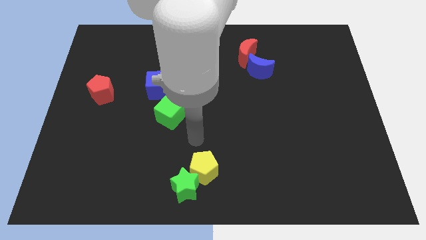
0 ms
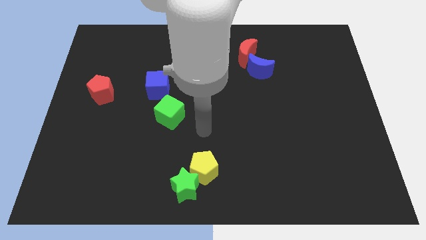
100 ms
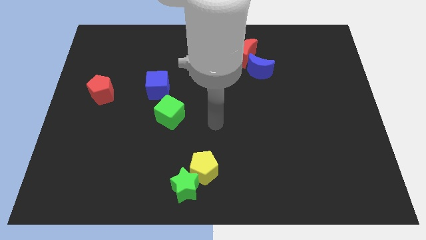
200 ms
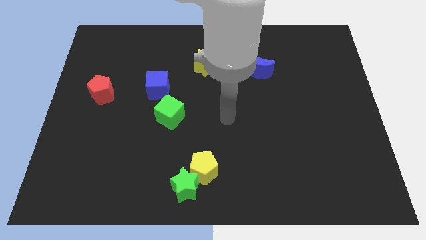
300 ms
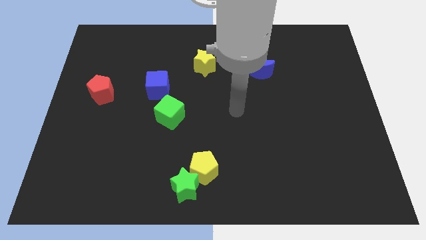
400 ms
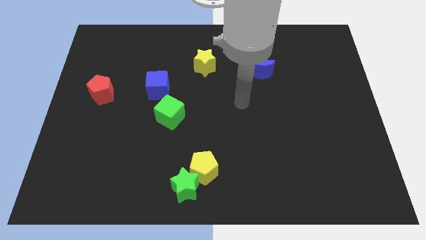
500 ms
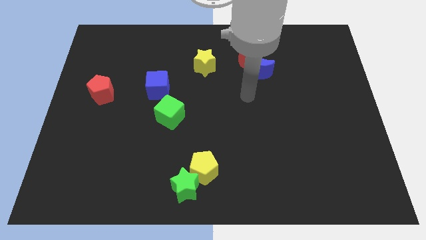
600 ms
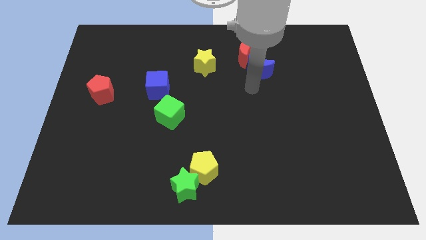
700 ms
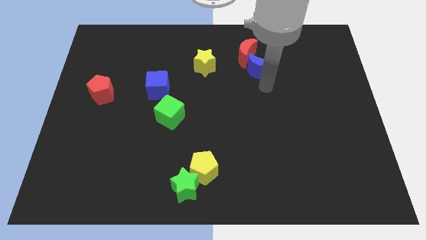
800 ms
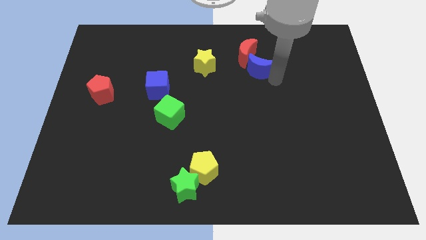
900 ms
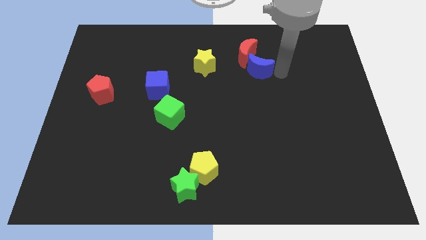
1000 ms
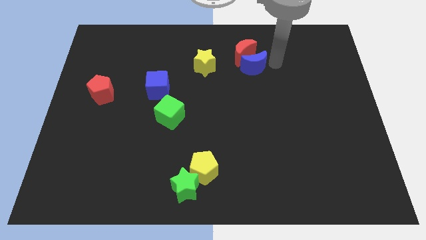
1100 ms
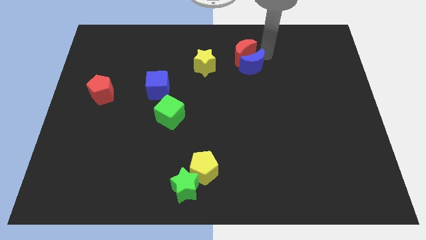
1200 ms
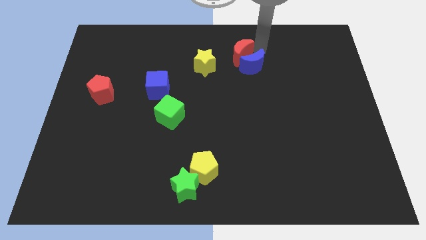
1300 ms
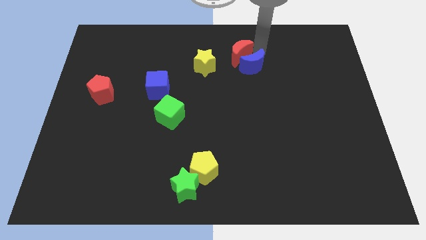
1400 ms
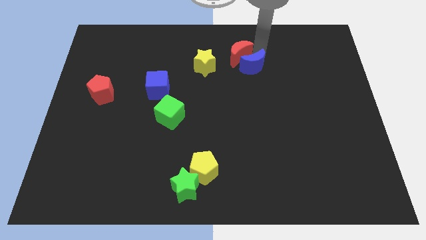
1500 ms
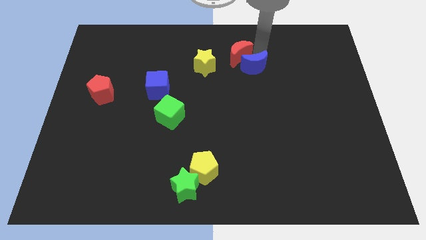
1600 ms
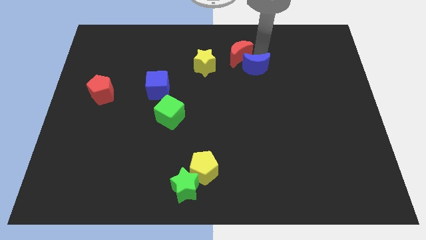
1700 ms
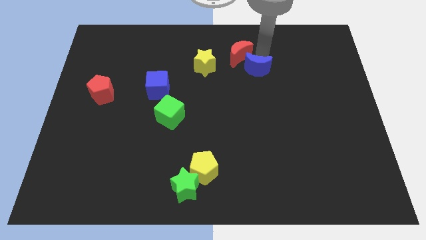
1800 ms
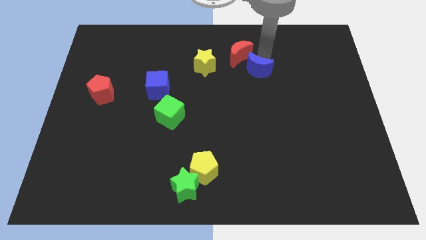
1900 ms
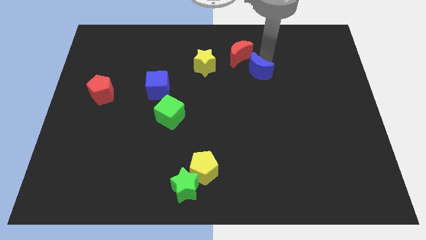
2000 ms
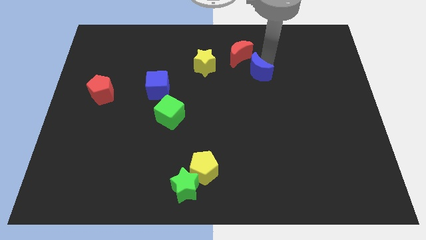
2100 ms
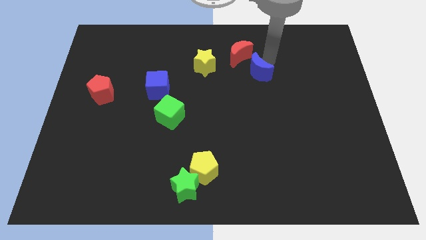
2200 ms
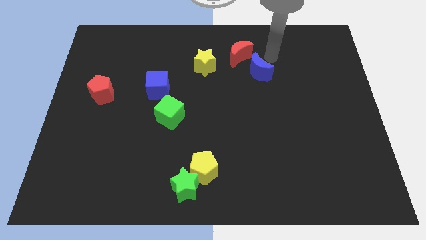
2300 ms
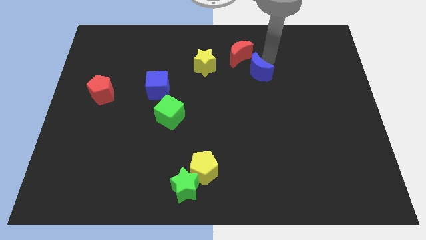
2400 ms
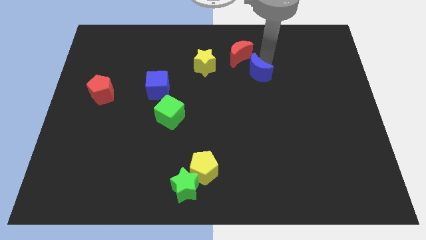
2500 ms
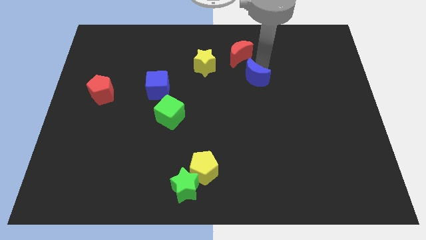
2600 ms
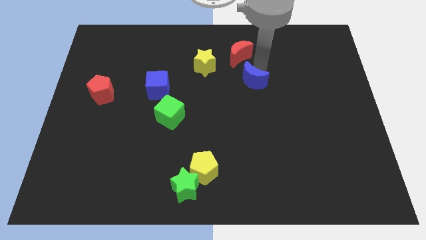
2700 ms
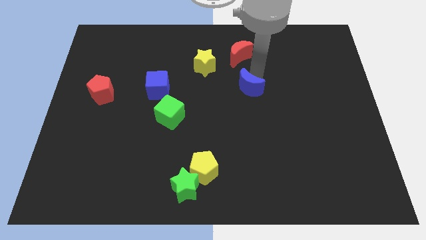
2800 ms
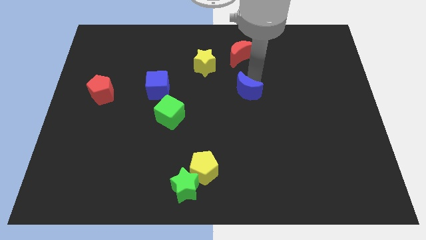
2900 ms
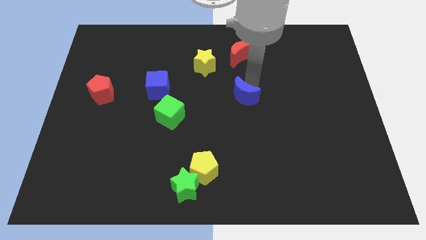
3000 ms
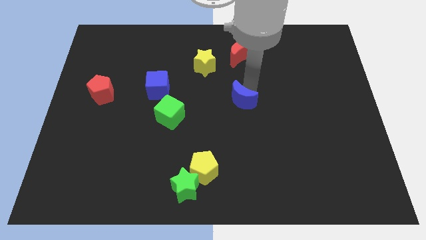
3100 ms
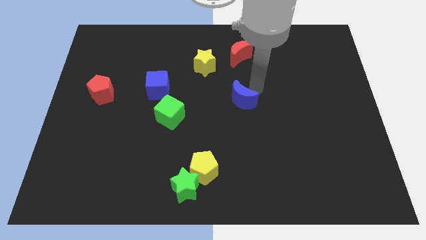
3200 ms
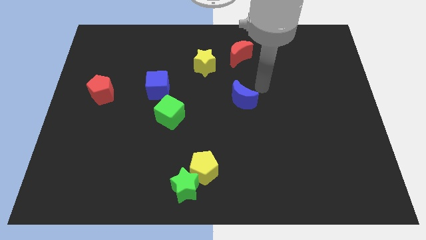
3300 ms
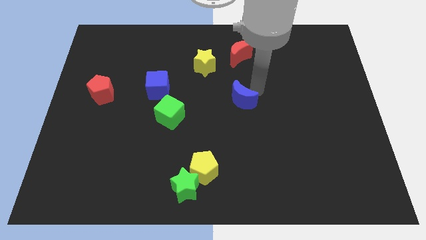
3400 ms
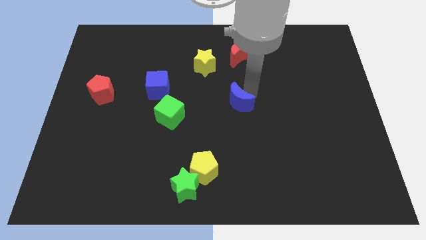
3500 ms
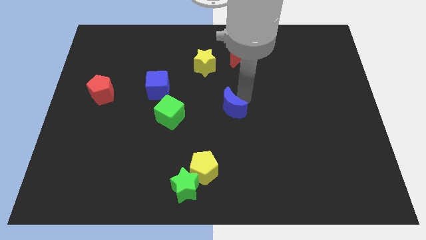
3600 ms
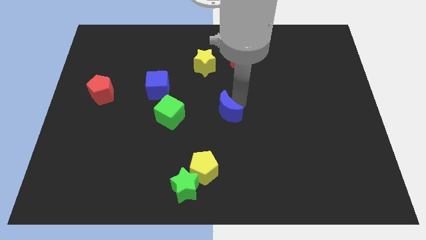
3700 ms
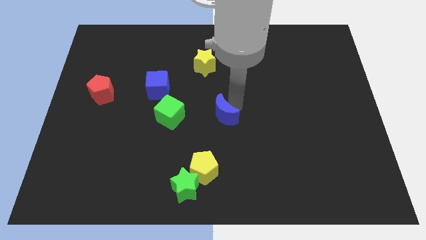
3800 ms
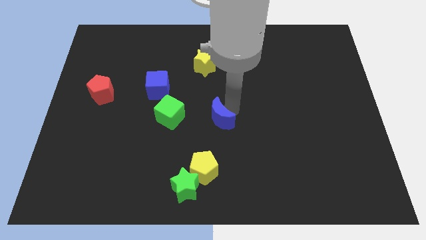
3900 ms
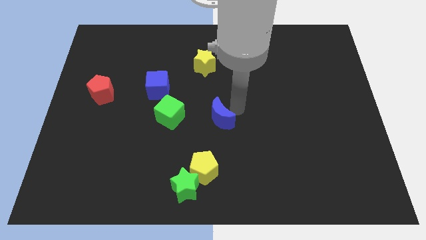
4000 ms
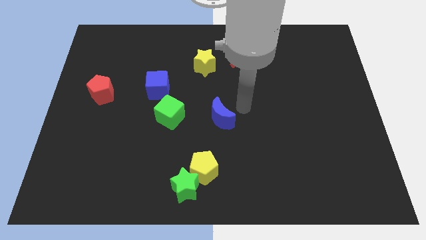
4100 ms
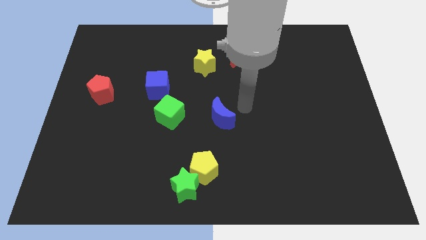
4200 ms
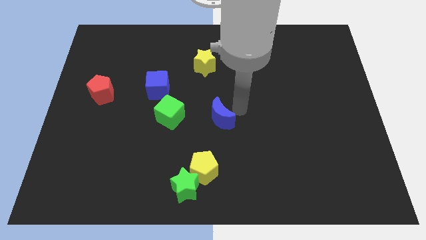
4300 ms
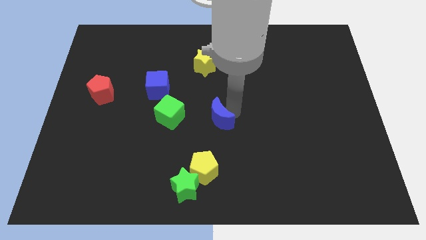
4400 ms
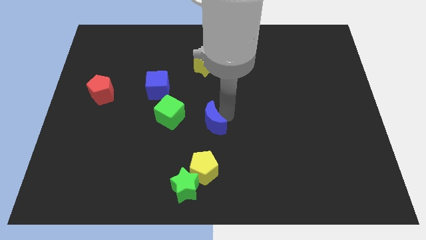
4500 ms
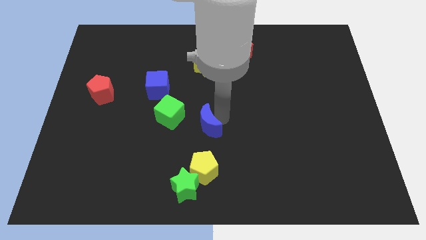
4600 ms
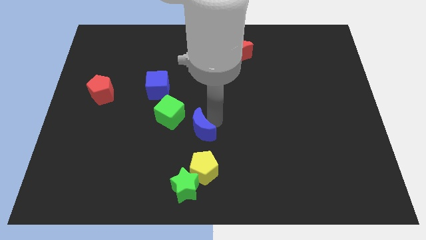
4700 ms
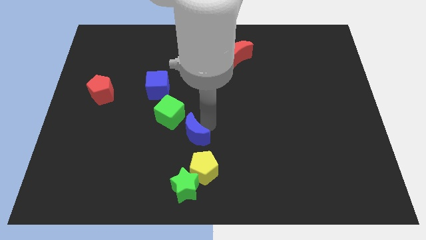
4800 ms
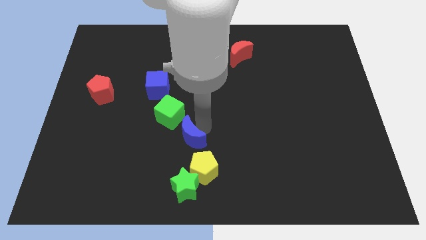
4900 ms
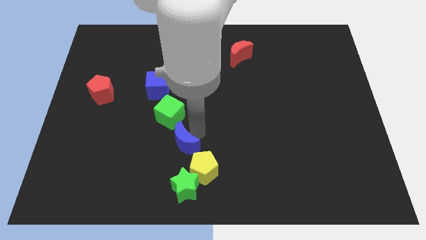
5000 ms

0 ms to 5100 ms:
push the blue moon to the bottom side of the green cube

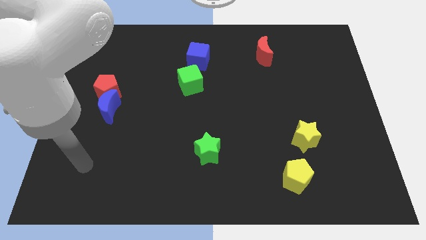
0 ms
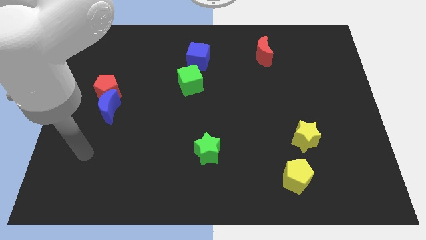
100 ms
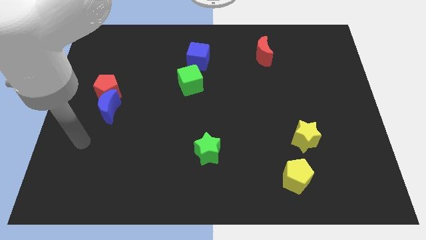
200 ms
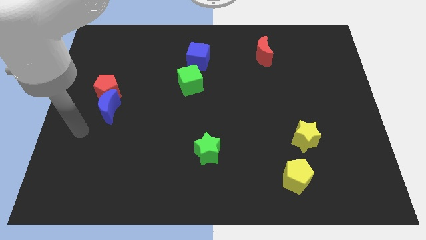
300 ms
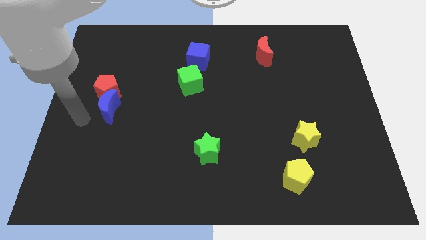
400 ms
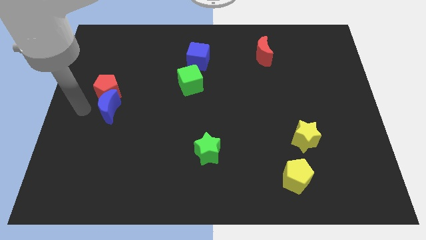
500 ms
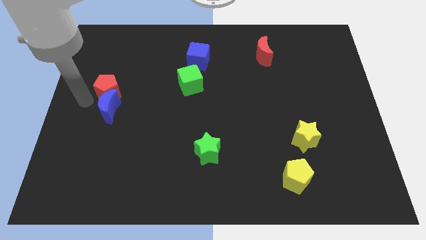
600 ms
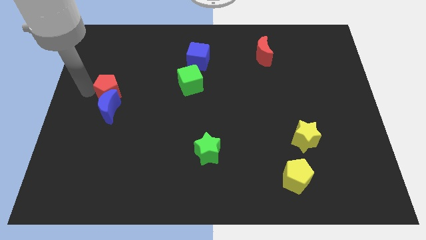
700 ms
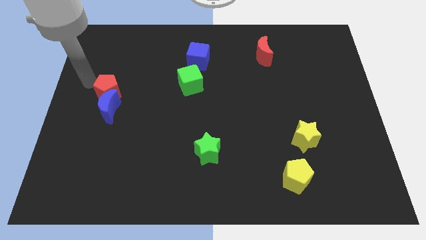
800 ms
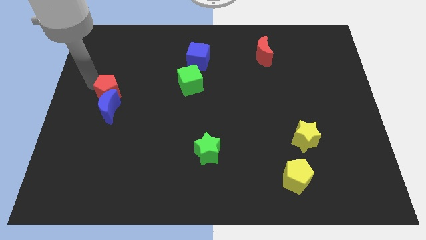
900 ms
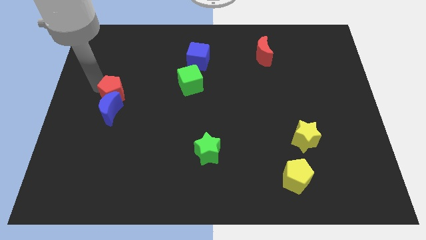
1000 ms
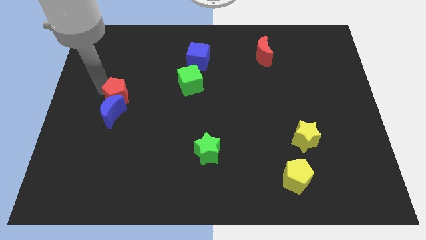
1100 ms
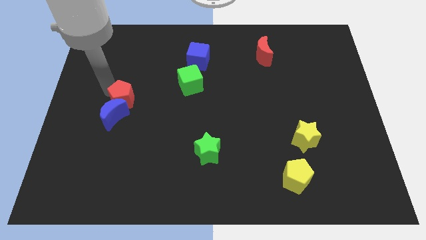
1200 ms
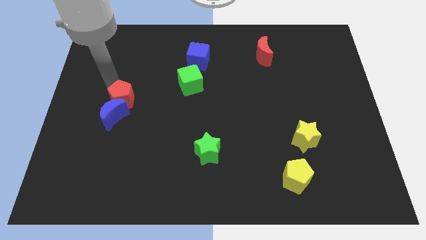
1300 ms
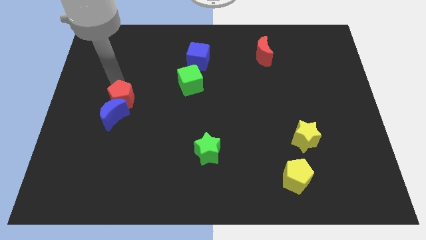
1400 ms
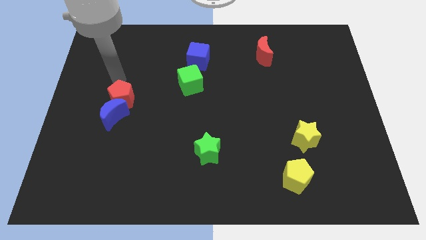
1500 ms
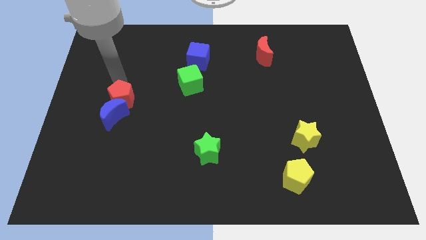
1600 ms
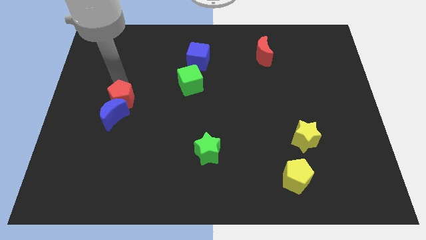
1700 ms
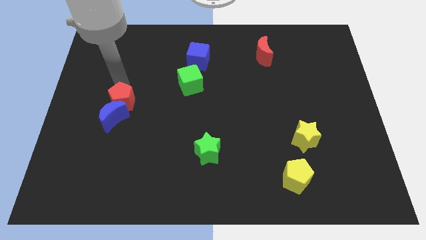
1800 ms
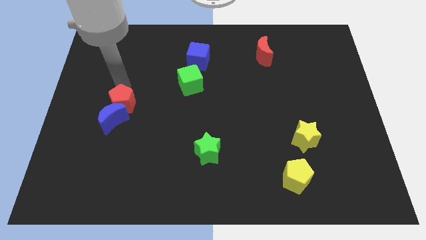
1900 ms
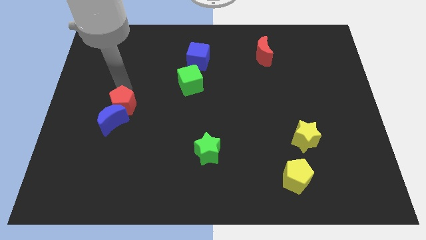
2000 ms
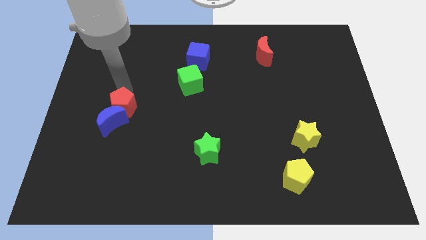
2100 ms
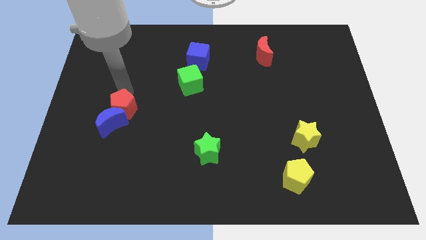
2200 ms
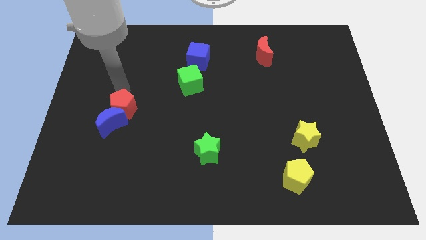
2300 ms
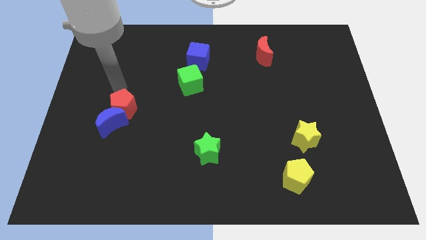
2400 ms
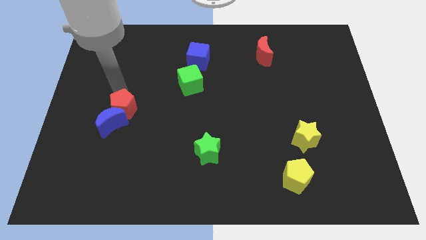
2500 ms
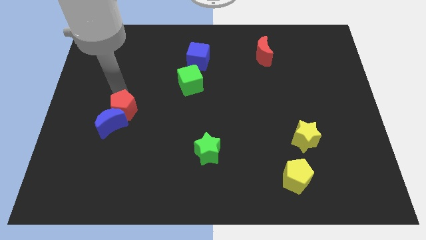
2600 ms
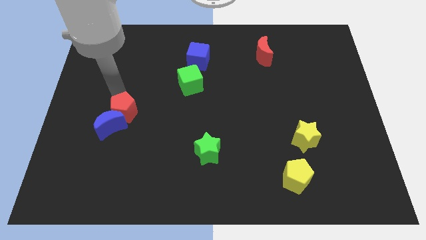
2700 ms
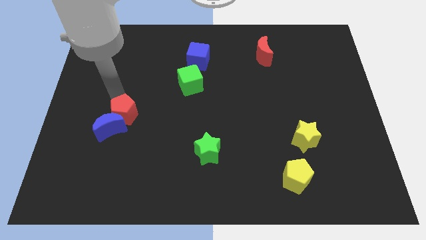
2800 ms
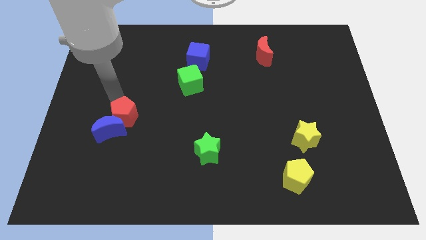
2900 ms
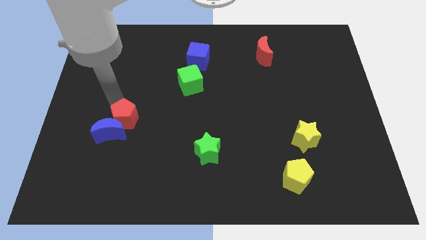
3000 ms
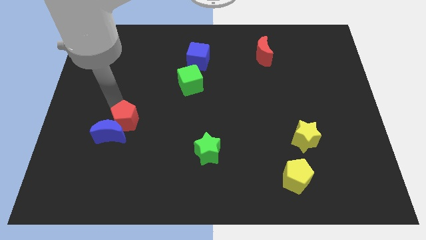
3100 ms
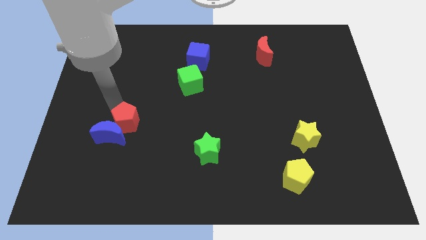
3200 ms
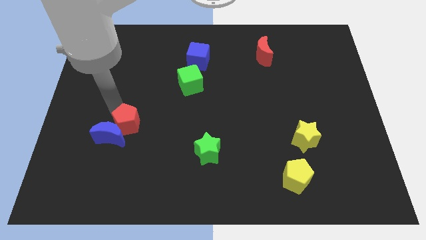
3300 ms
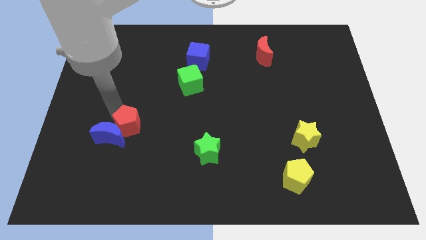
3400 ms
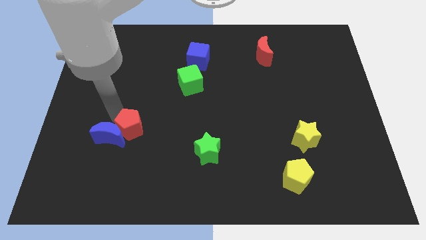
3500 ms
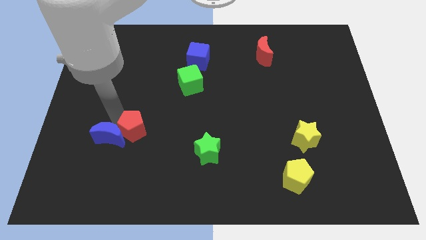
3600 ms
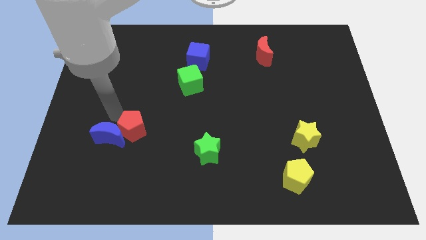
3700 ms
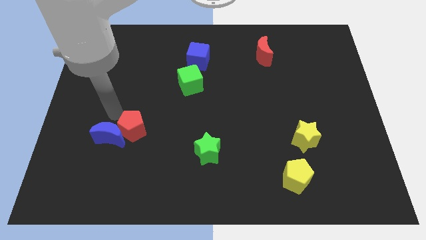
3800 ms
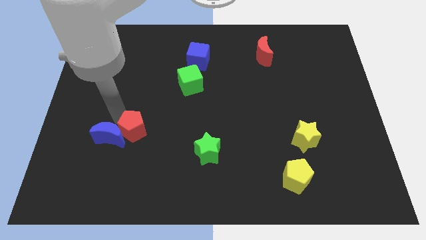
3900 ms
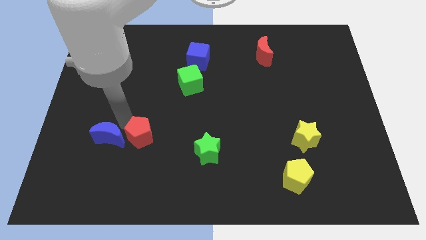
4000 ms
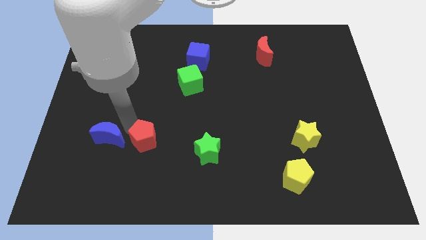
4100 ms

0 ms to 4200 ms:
slide the red pentagon just left of the green star
